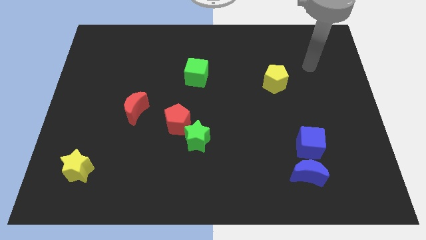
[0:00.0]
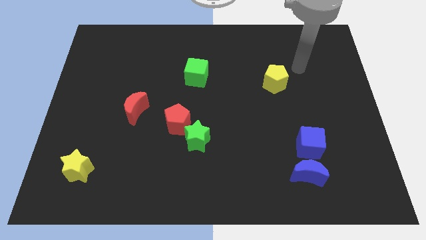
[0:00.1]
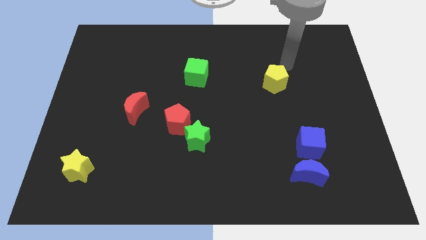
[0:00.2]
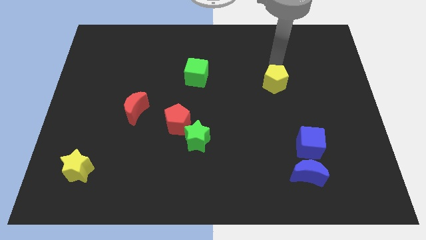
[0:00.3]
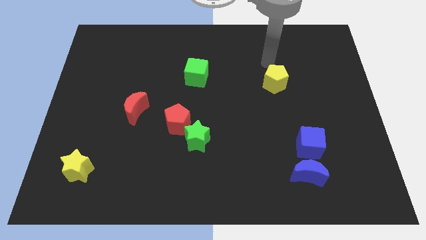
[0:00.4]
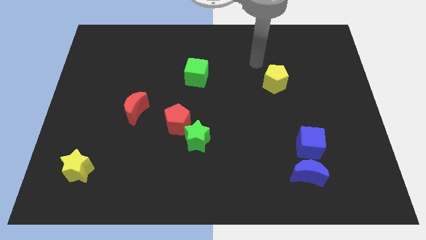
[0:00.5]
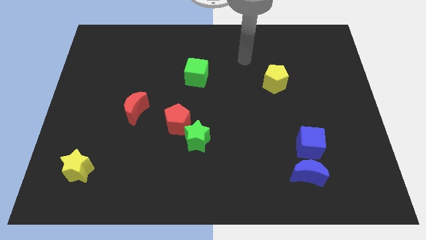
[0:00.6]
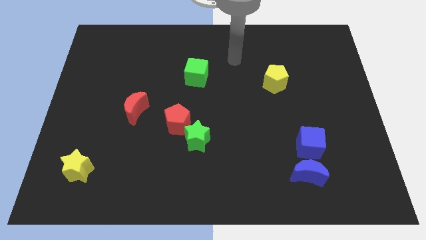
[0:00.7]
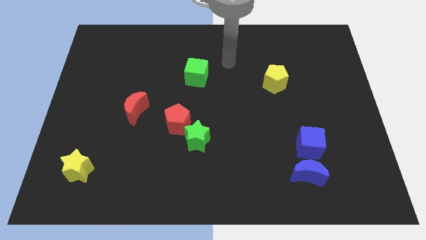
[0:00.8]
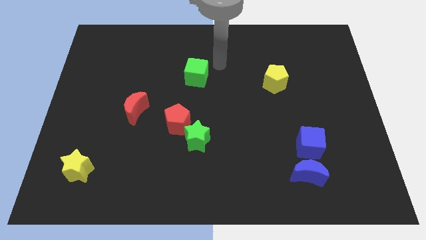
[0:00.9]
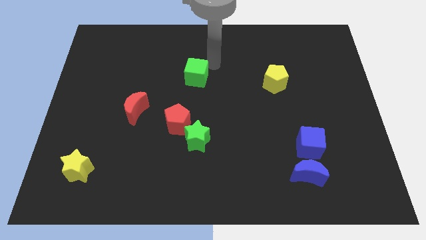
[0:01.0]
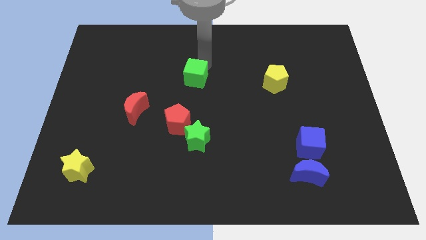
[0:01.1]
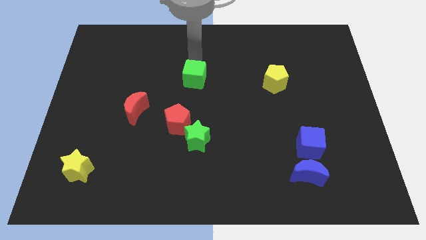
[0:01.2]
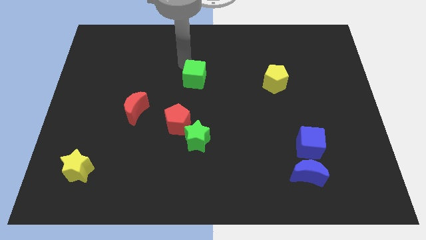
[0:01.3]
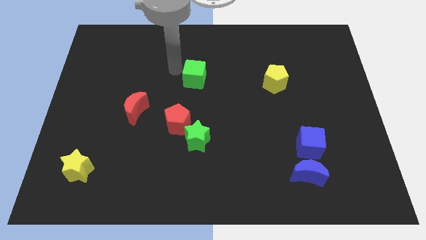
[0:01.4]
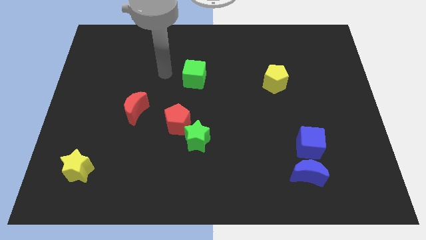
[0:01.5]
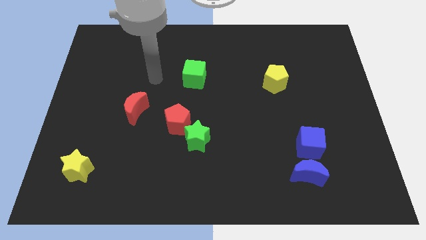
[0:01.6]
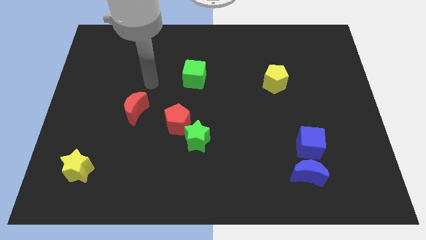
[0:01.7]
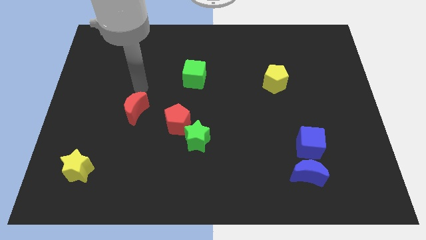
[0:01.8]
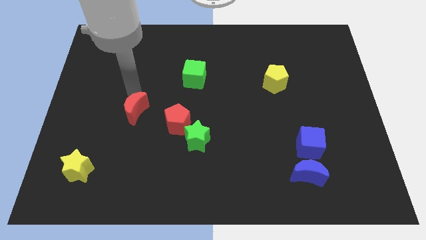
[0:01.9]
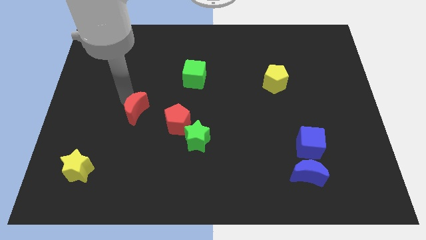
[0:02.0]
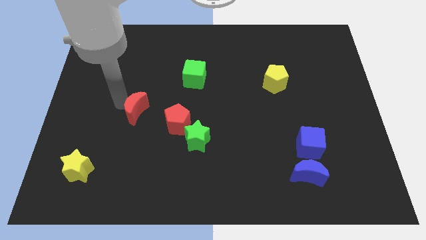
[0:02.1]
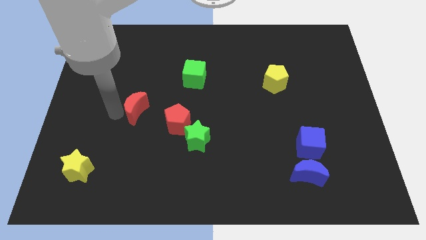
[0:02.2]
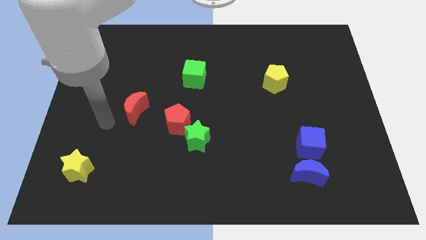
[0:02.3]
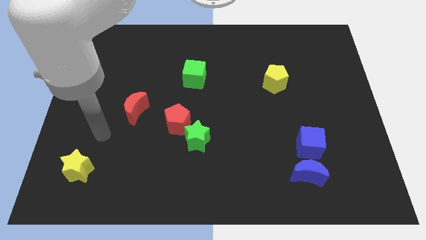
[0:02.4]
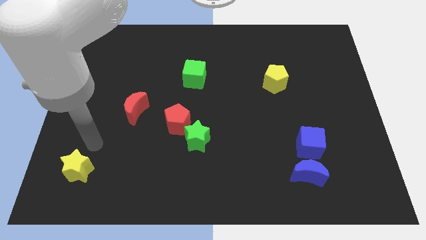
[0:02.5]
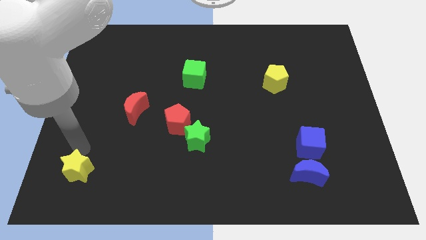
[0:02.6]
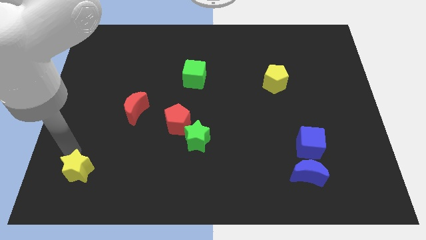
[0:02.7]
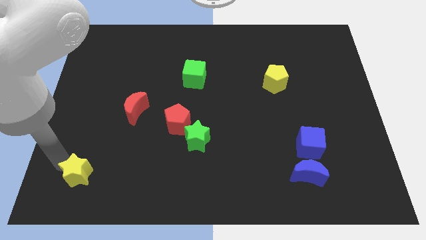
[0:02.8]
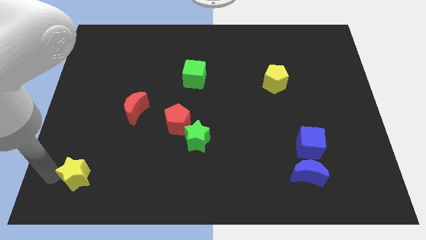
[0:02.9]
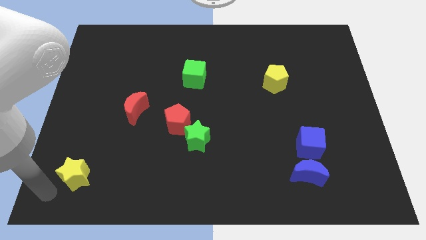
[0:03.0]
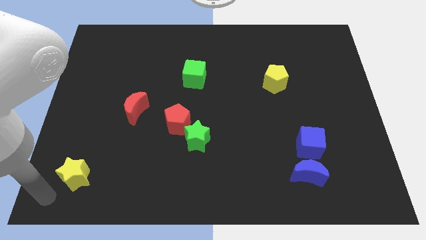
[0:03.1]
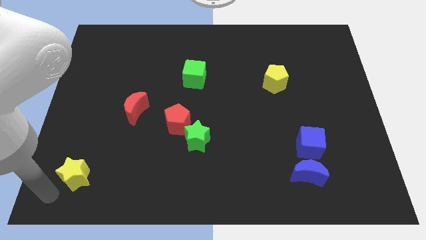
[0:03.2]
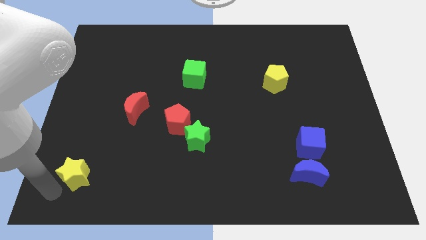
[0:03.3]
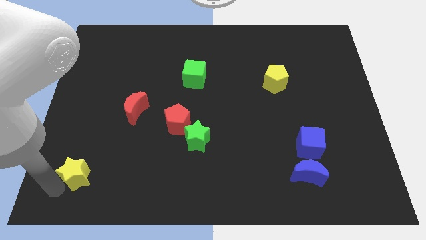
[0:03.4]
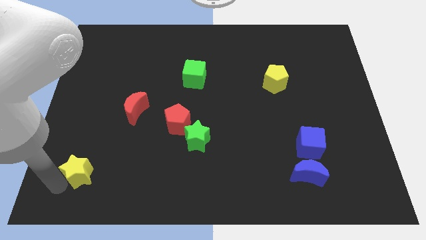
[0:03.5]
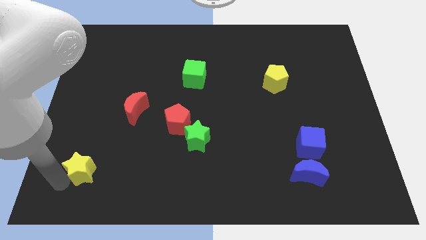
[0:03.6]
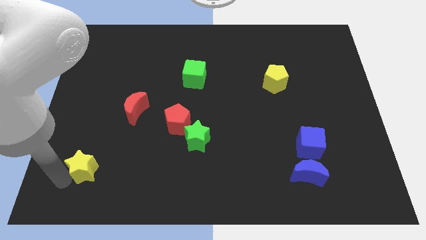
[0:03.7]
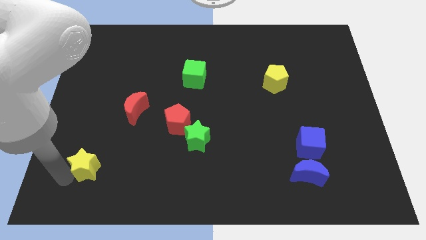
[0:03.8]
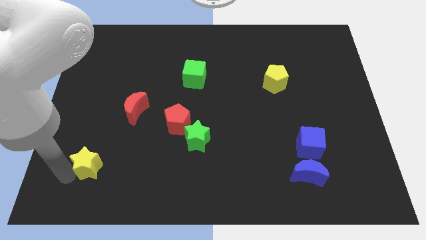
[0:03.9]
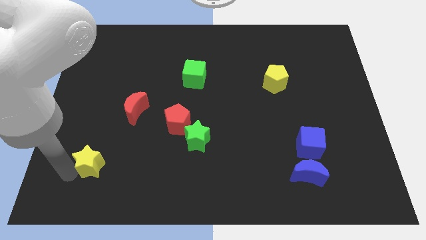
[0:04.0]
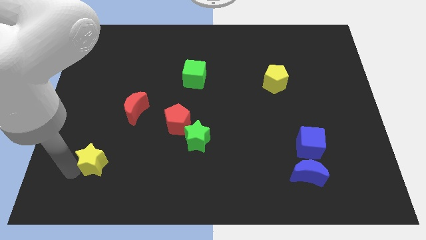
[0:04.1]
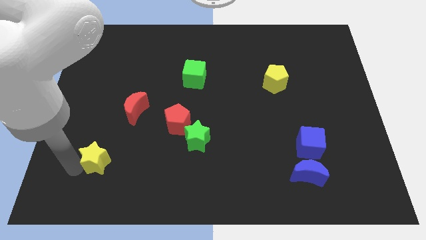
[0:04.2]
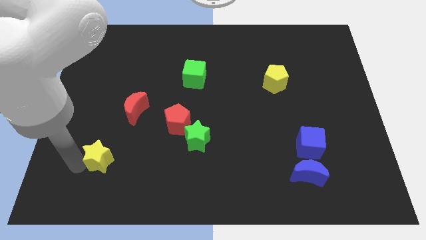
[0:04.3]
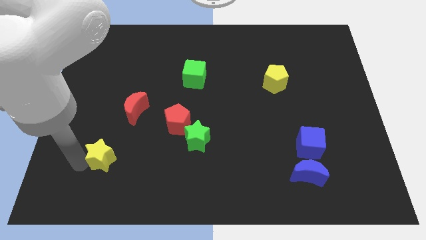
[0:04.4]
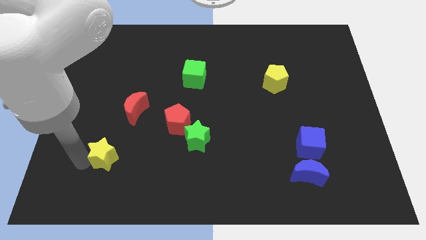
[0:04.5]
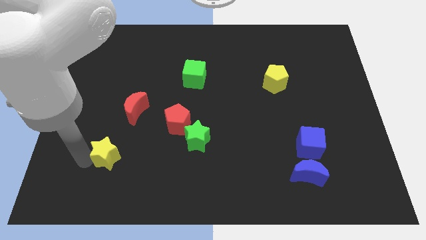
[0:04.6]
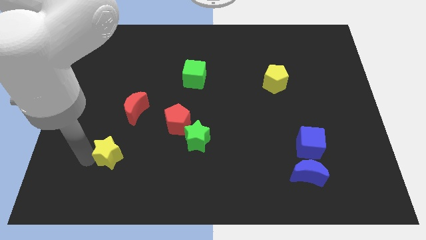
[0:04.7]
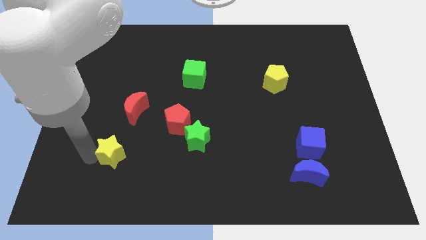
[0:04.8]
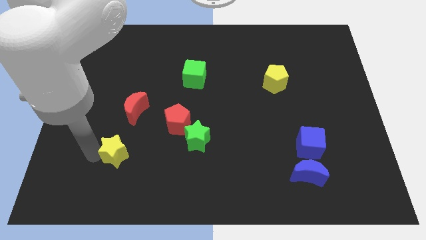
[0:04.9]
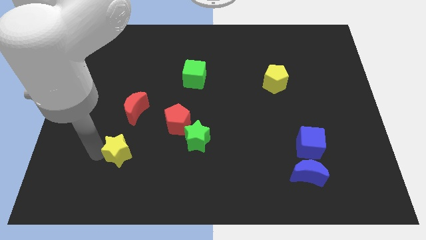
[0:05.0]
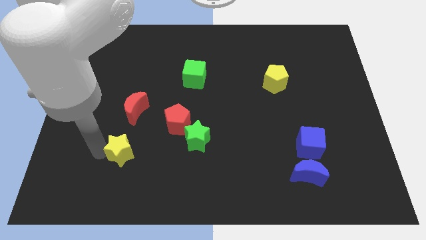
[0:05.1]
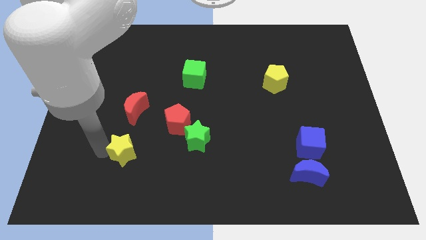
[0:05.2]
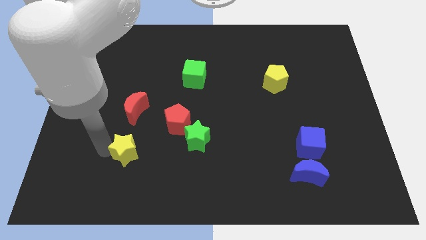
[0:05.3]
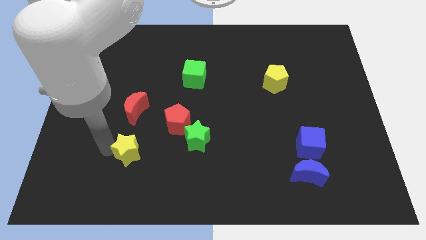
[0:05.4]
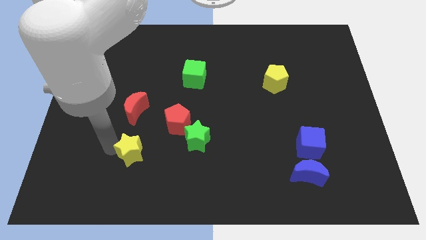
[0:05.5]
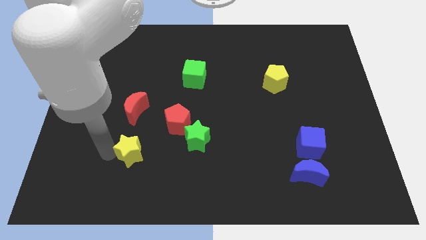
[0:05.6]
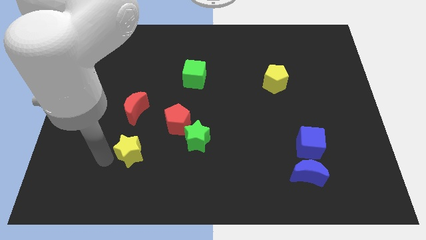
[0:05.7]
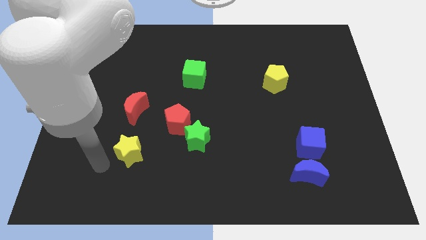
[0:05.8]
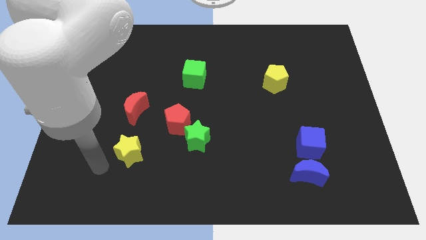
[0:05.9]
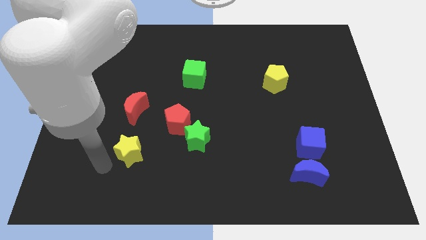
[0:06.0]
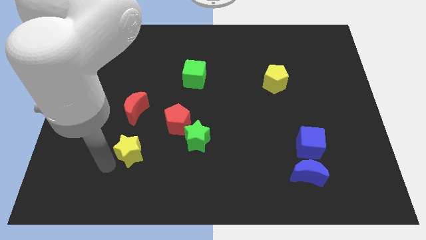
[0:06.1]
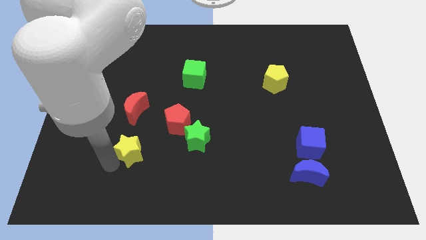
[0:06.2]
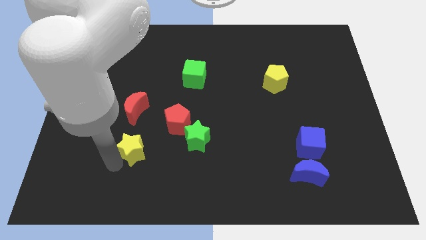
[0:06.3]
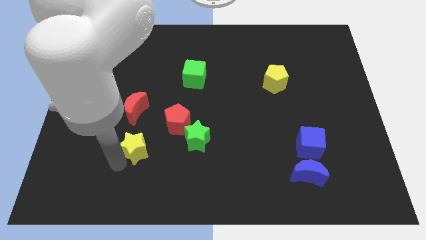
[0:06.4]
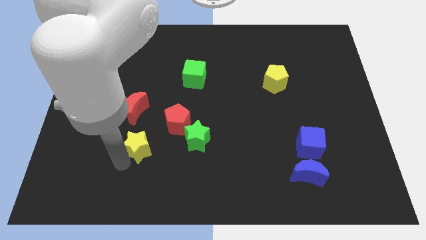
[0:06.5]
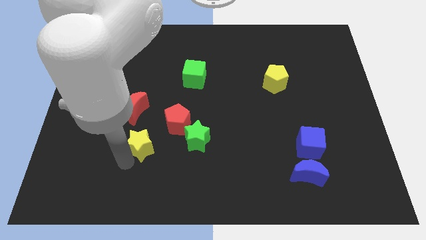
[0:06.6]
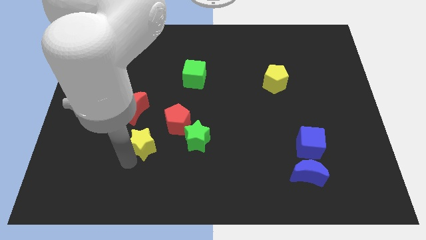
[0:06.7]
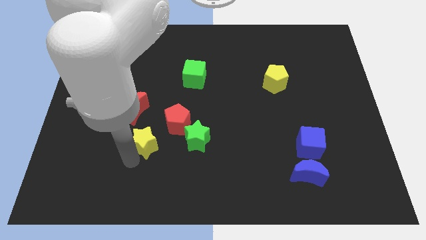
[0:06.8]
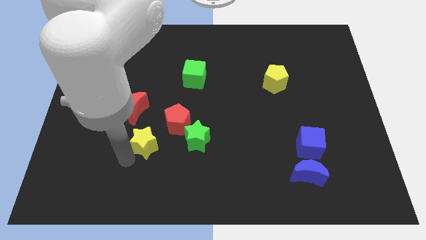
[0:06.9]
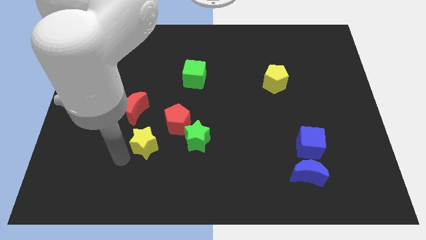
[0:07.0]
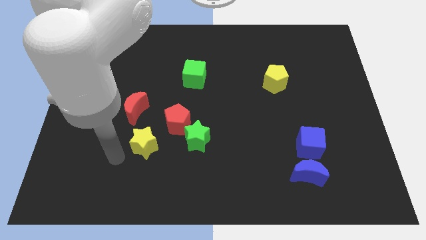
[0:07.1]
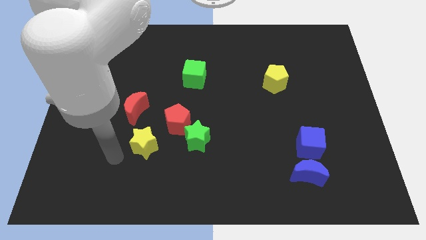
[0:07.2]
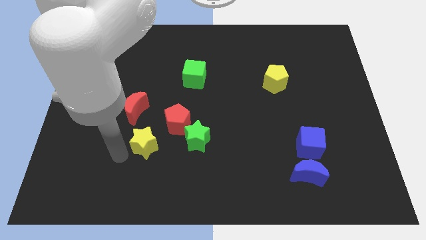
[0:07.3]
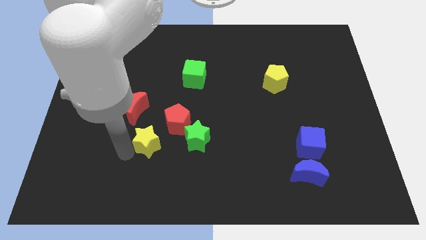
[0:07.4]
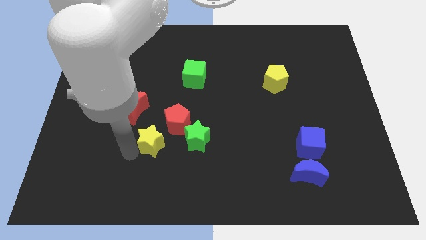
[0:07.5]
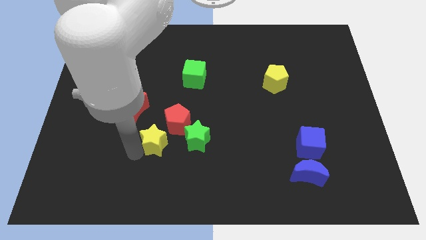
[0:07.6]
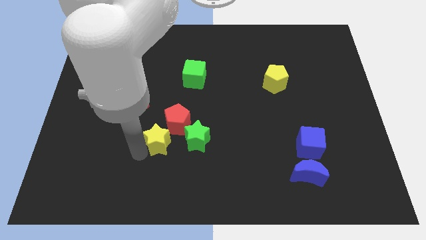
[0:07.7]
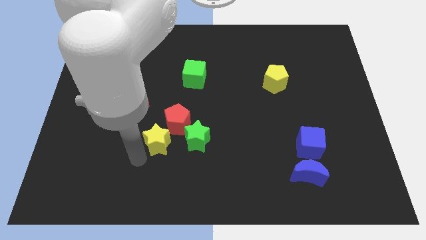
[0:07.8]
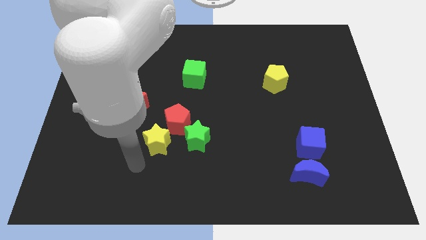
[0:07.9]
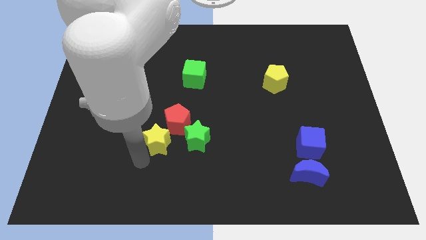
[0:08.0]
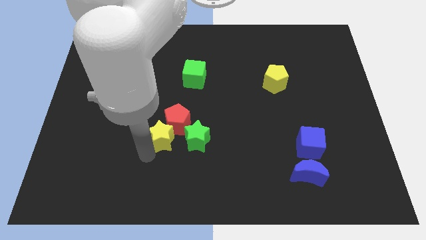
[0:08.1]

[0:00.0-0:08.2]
slide the yellow star close to the red pentagon
